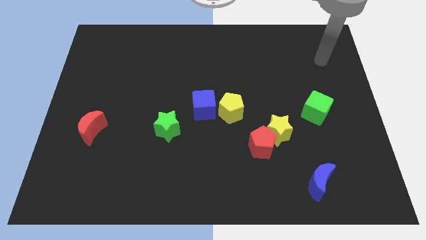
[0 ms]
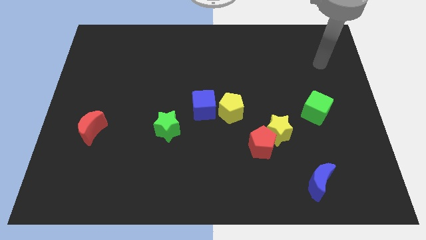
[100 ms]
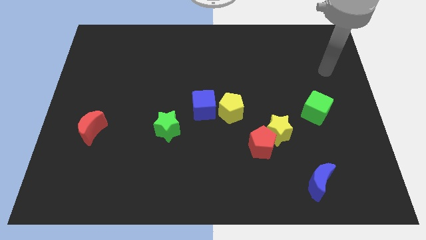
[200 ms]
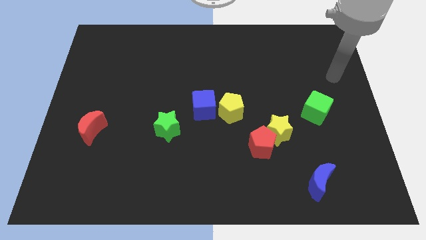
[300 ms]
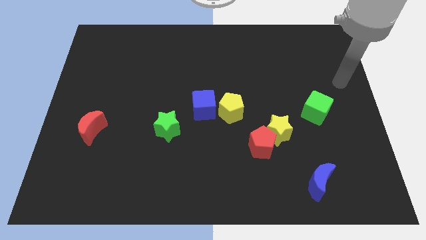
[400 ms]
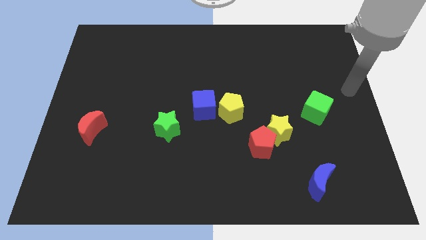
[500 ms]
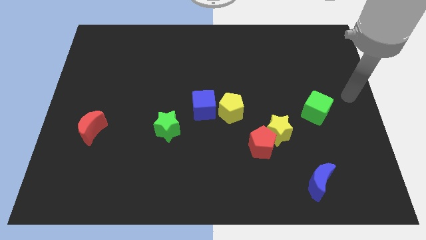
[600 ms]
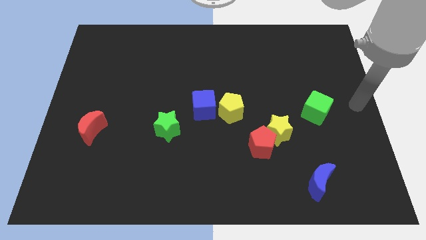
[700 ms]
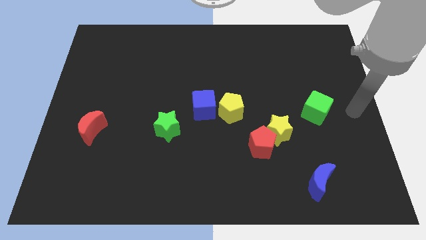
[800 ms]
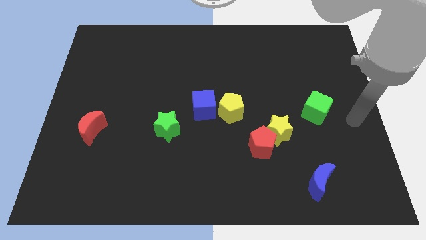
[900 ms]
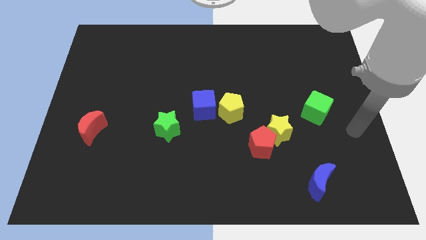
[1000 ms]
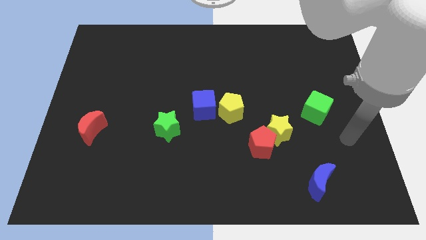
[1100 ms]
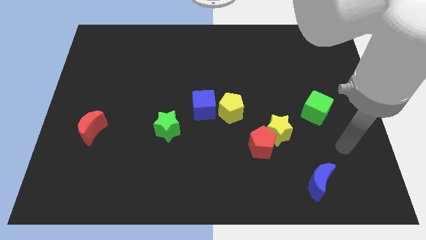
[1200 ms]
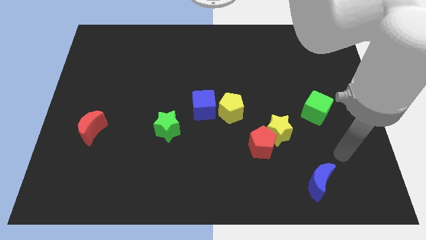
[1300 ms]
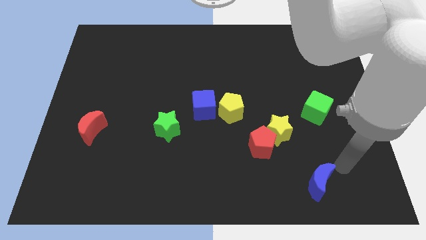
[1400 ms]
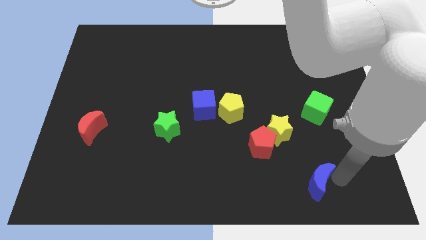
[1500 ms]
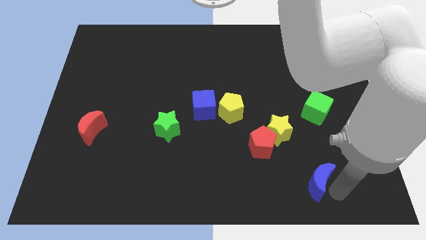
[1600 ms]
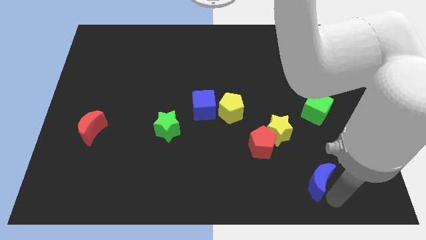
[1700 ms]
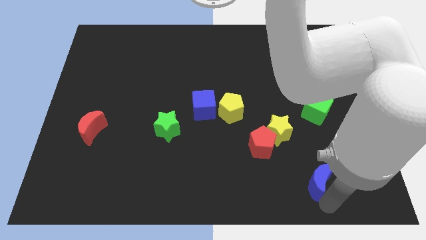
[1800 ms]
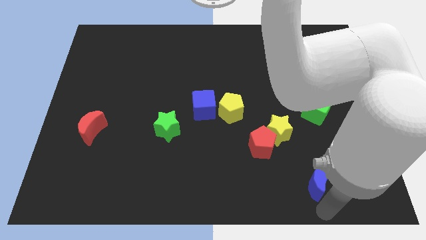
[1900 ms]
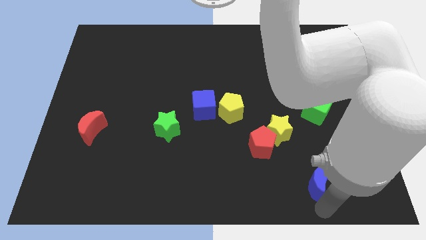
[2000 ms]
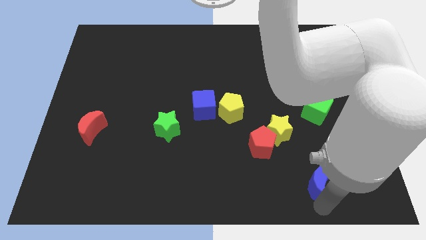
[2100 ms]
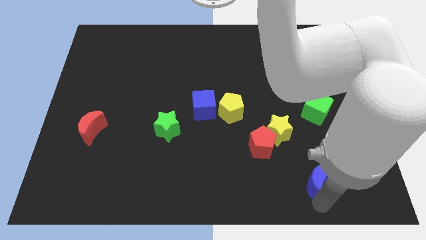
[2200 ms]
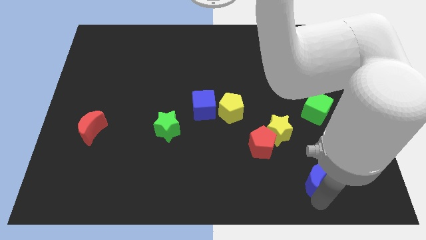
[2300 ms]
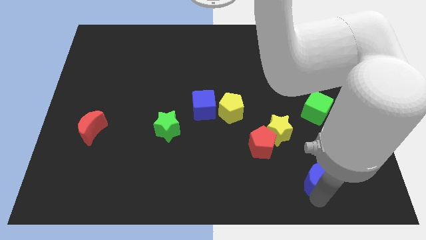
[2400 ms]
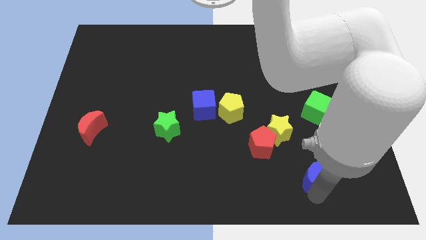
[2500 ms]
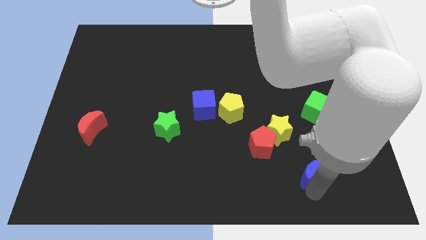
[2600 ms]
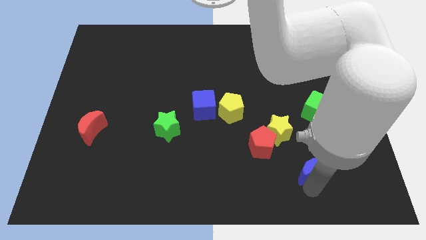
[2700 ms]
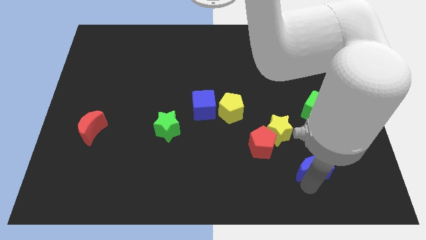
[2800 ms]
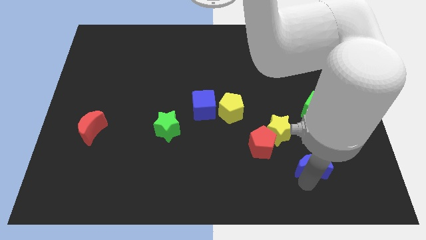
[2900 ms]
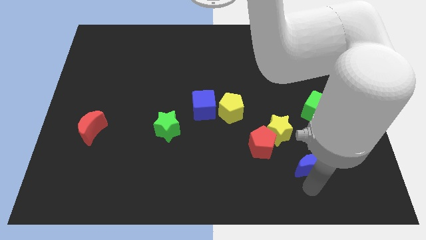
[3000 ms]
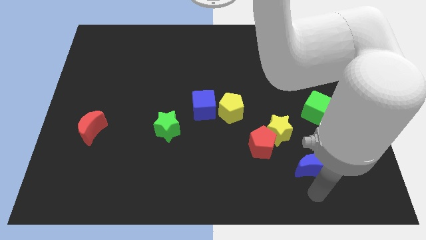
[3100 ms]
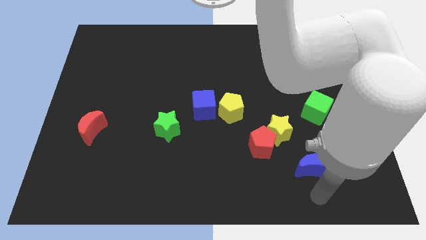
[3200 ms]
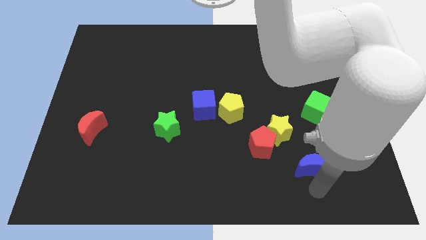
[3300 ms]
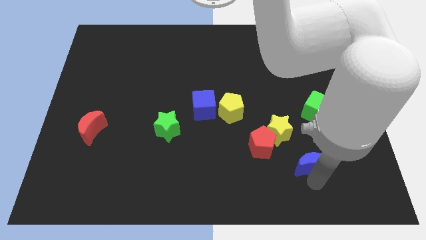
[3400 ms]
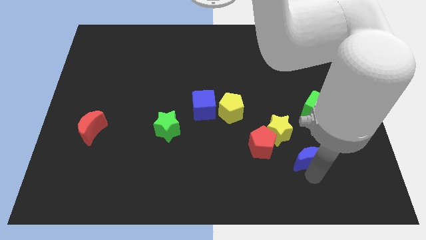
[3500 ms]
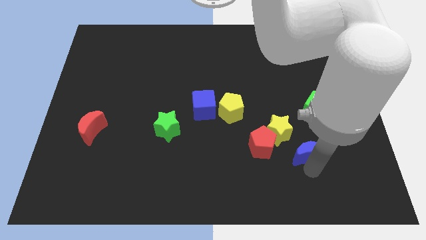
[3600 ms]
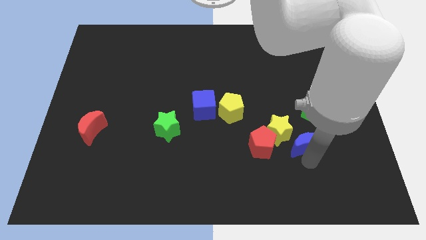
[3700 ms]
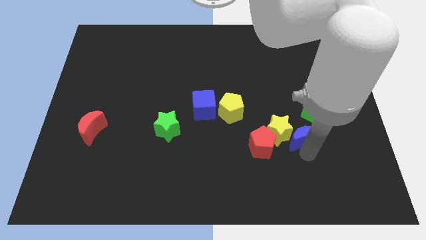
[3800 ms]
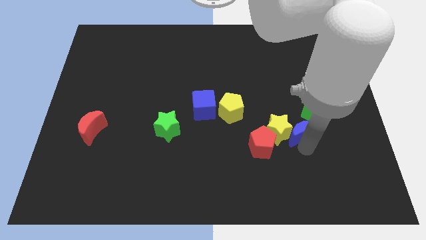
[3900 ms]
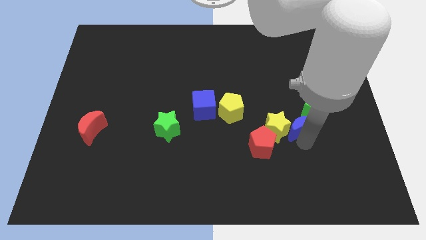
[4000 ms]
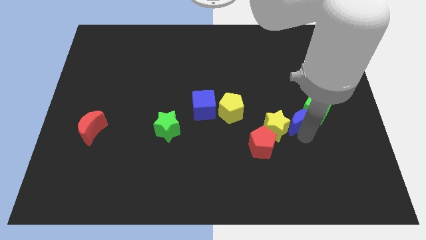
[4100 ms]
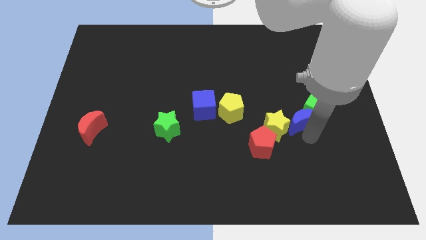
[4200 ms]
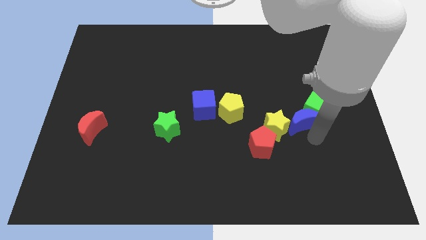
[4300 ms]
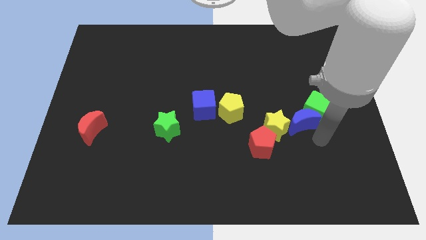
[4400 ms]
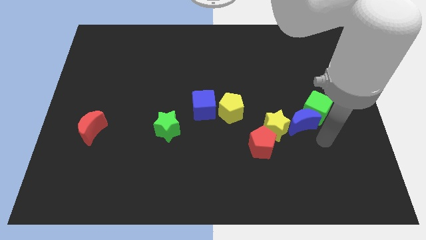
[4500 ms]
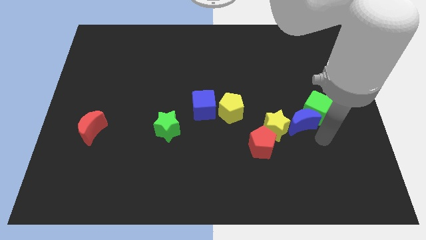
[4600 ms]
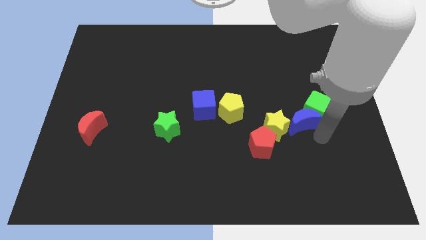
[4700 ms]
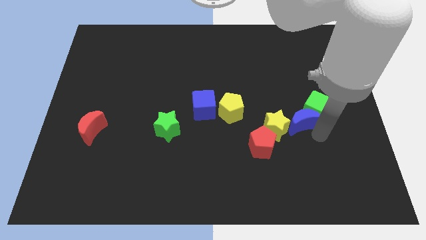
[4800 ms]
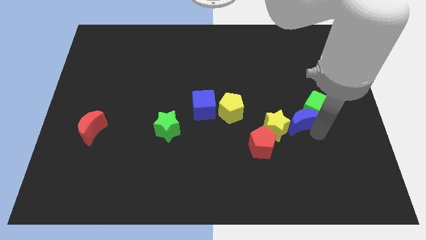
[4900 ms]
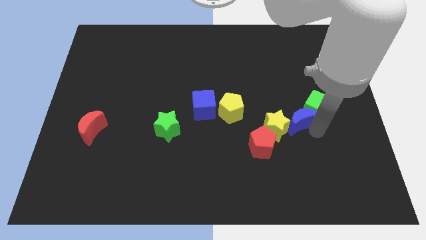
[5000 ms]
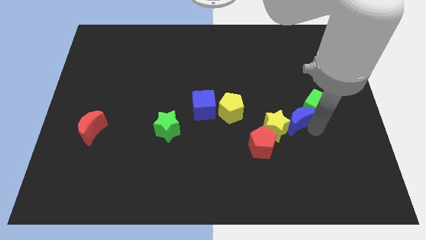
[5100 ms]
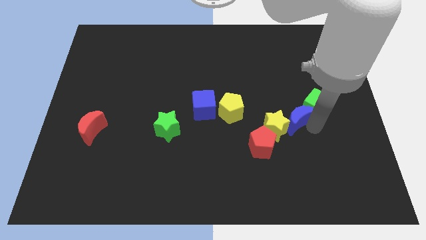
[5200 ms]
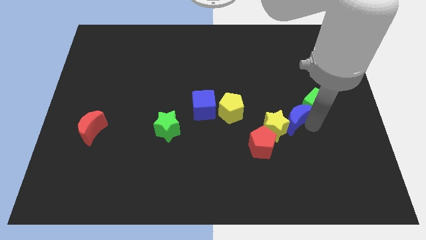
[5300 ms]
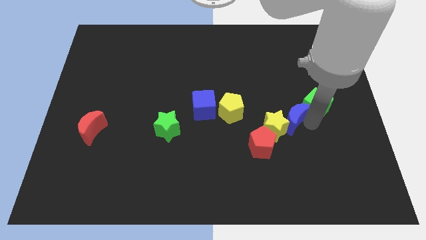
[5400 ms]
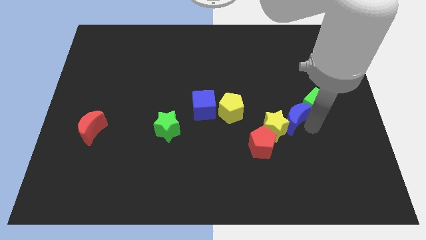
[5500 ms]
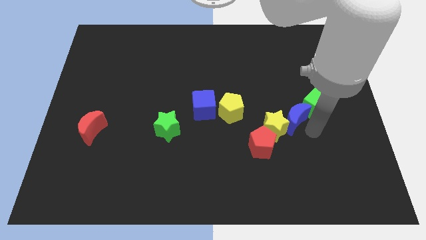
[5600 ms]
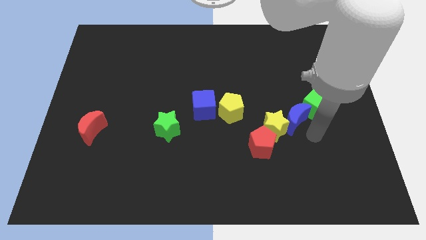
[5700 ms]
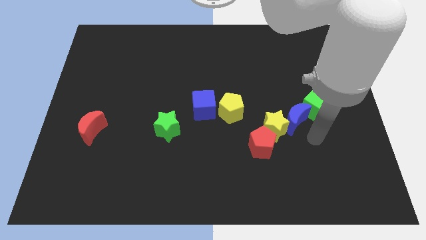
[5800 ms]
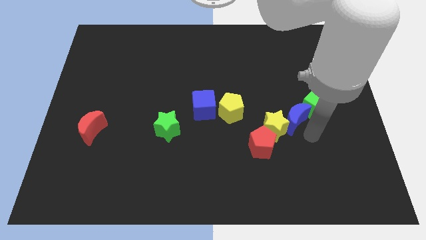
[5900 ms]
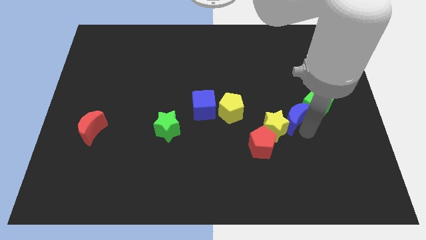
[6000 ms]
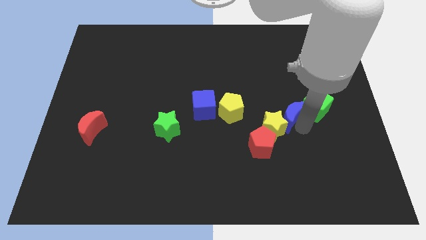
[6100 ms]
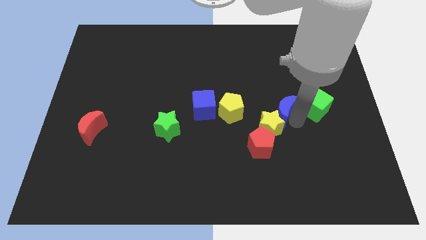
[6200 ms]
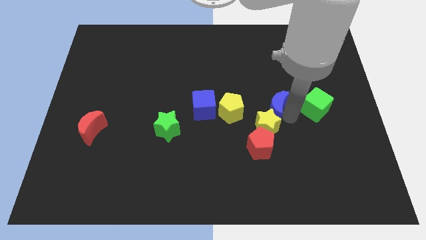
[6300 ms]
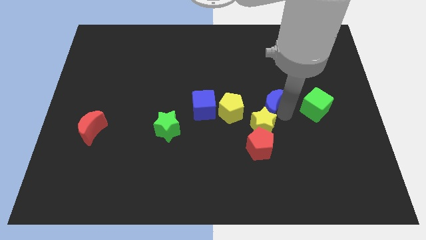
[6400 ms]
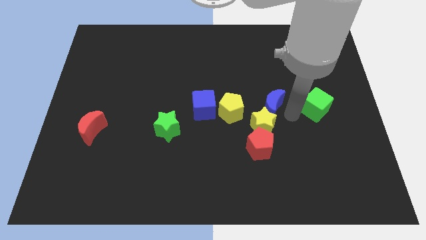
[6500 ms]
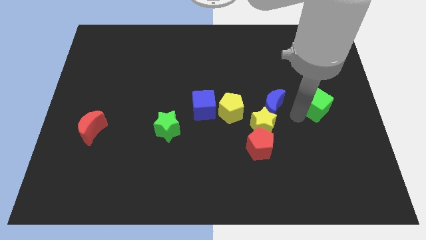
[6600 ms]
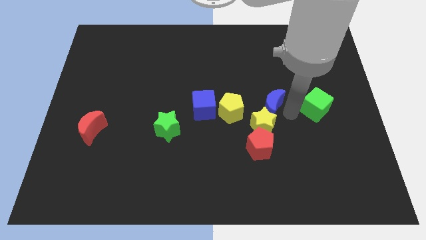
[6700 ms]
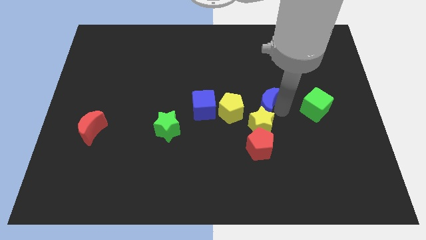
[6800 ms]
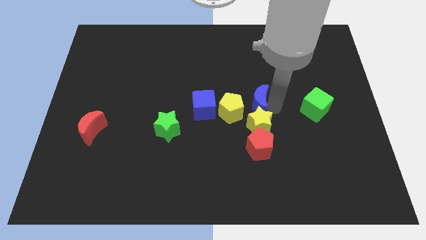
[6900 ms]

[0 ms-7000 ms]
push the blue moon upwards and then to the left

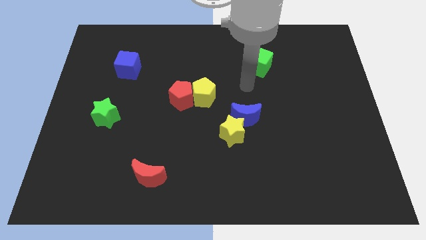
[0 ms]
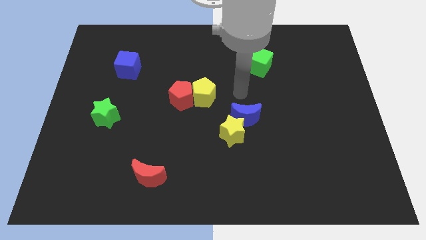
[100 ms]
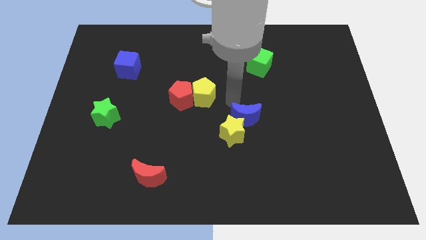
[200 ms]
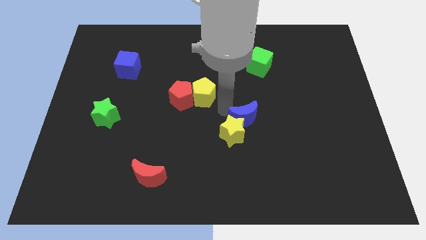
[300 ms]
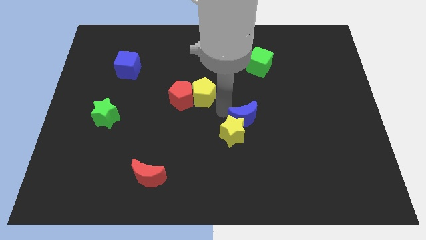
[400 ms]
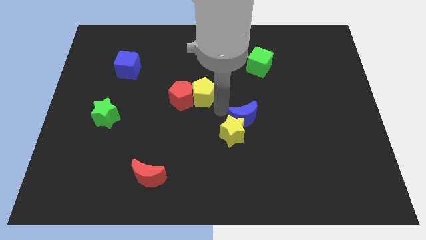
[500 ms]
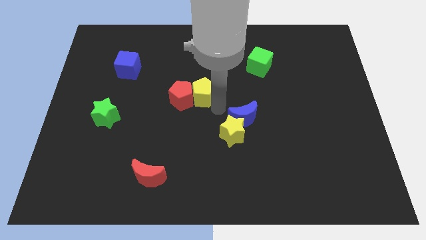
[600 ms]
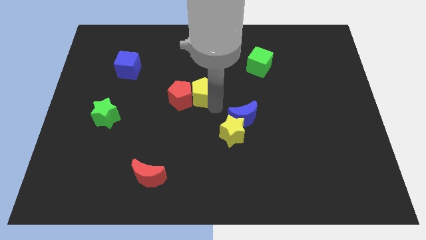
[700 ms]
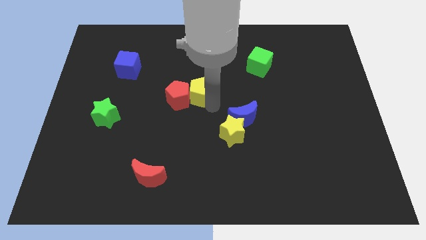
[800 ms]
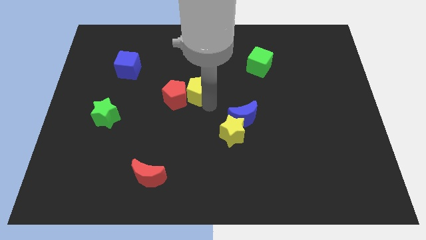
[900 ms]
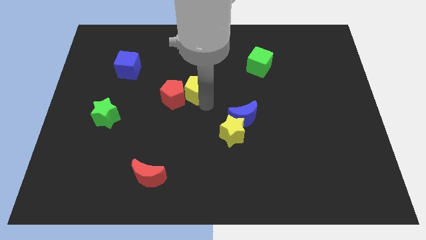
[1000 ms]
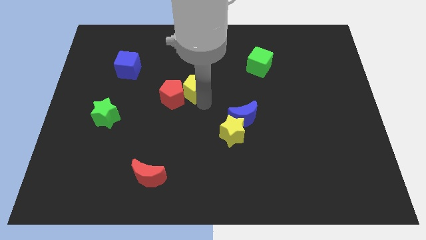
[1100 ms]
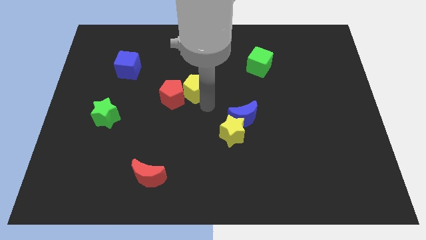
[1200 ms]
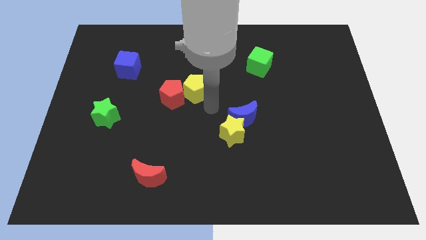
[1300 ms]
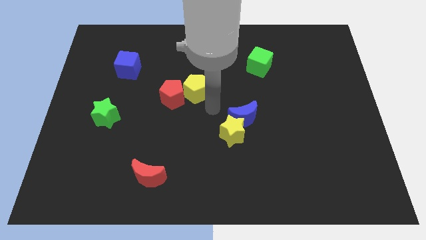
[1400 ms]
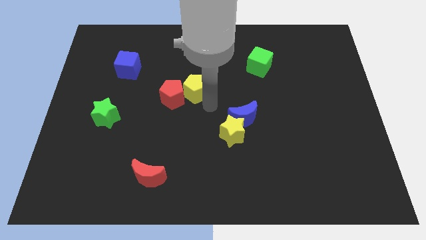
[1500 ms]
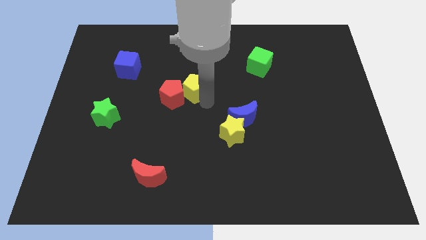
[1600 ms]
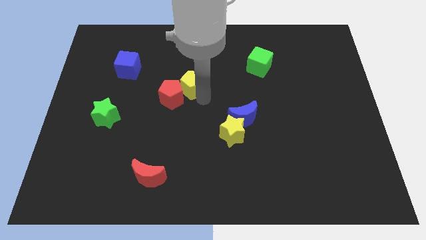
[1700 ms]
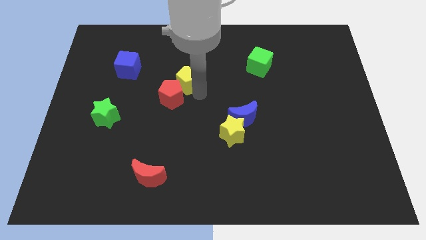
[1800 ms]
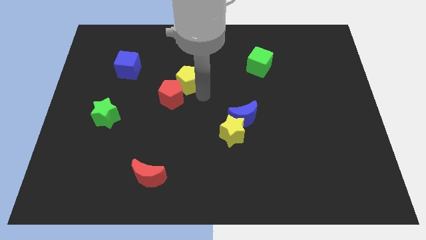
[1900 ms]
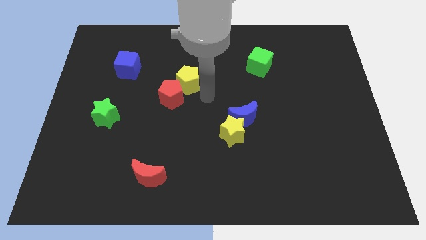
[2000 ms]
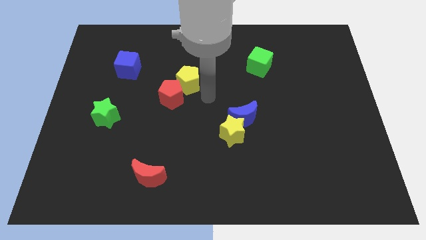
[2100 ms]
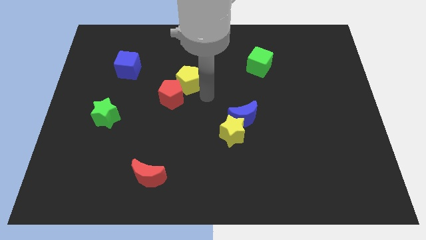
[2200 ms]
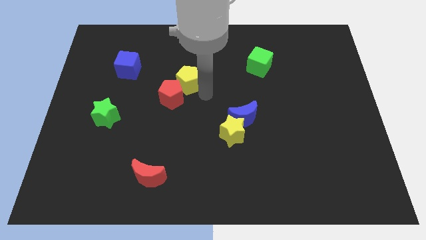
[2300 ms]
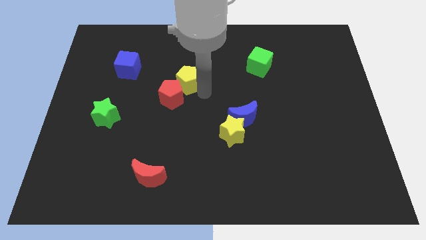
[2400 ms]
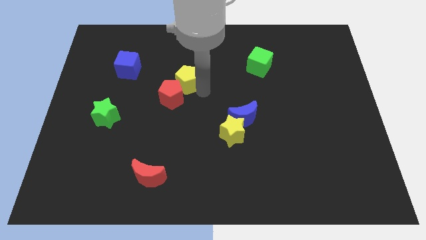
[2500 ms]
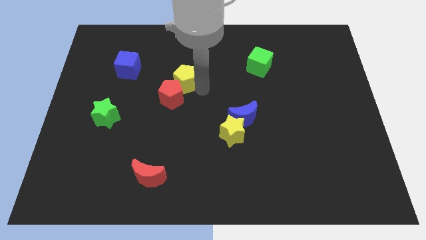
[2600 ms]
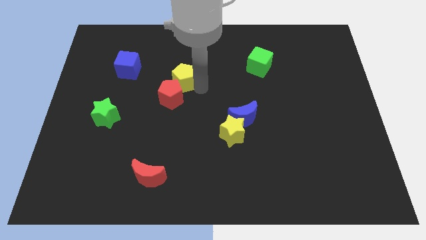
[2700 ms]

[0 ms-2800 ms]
slightly push the yellow pentagon diagonally upwards and to the left
